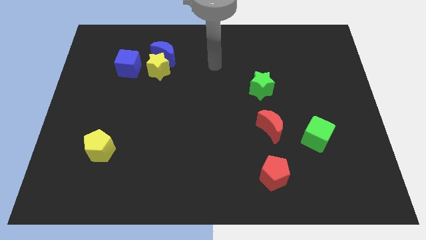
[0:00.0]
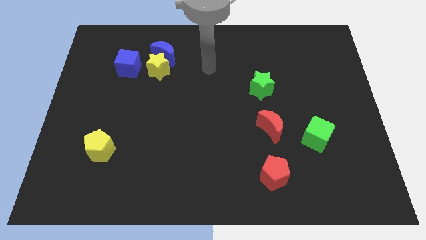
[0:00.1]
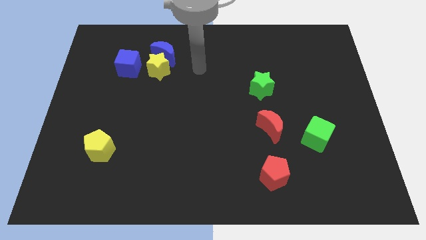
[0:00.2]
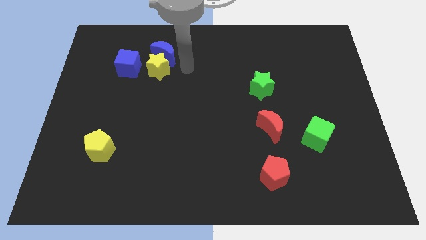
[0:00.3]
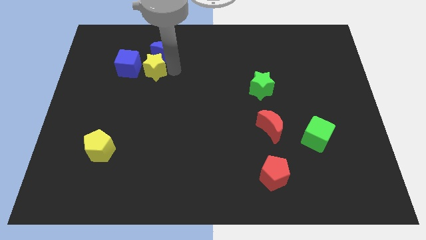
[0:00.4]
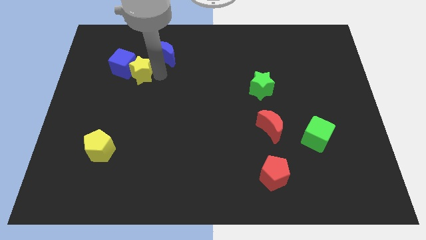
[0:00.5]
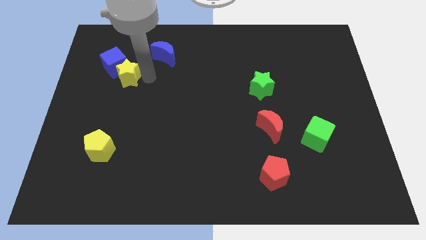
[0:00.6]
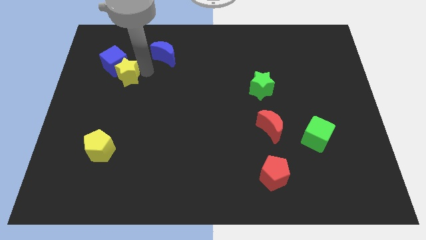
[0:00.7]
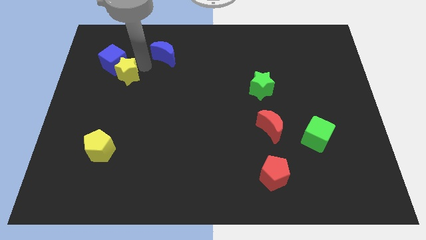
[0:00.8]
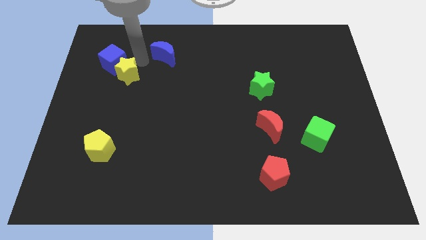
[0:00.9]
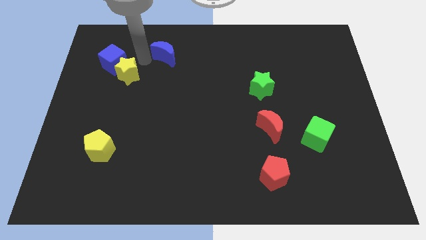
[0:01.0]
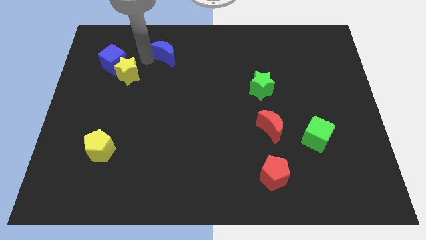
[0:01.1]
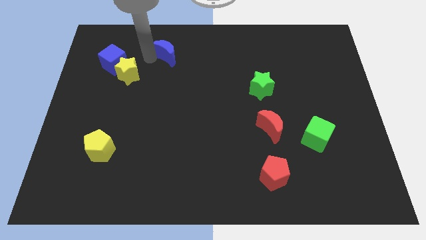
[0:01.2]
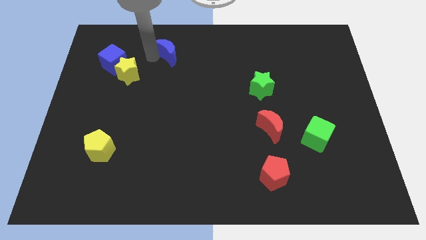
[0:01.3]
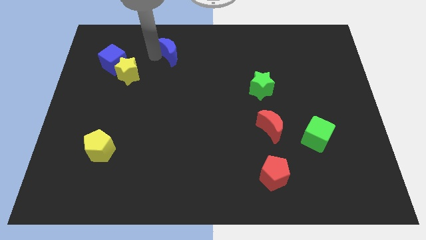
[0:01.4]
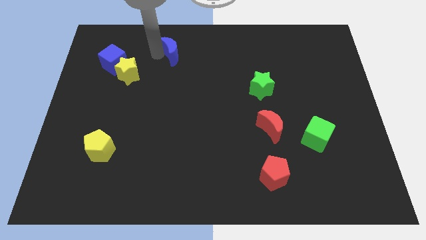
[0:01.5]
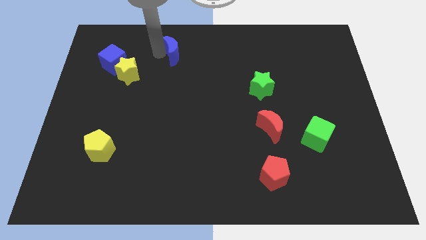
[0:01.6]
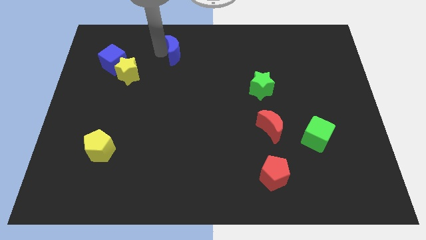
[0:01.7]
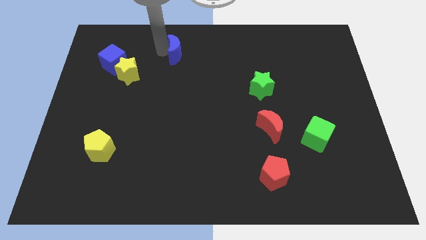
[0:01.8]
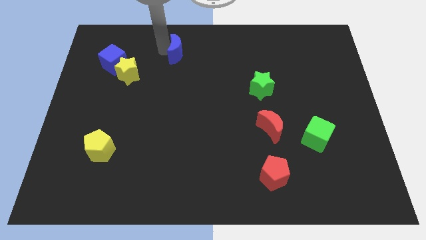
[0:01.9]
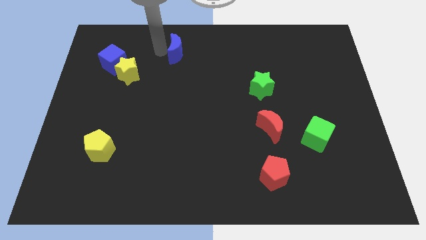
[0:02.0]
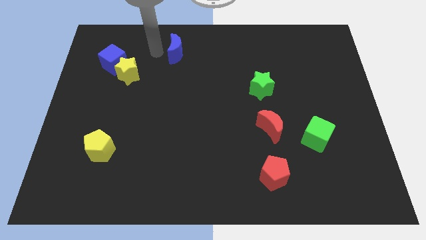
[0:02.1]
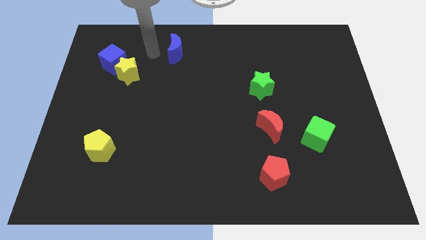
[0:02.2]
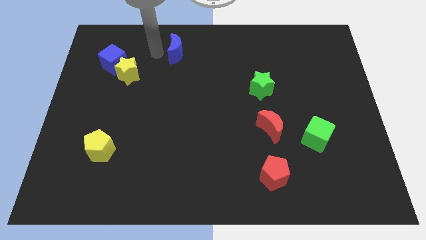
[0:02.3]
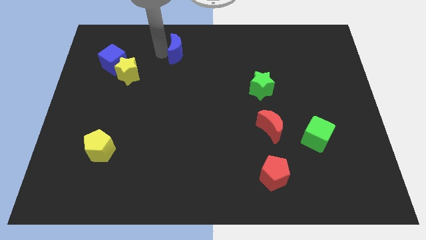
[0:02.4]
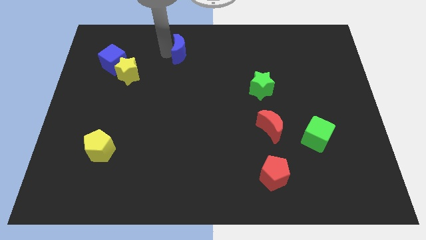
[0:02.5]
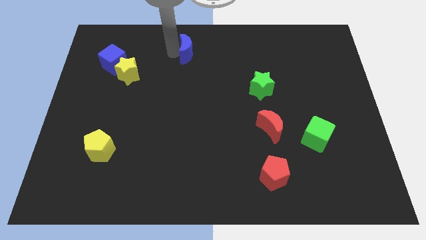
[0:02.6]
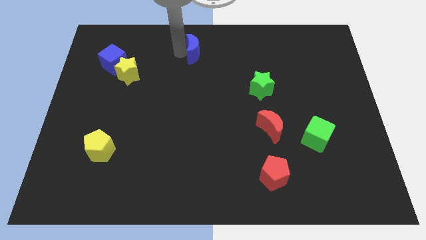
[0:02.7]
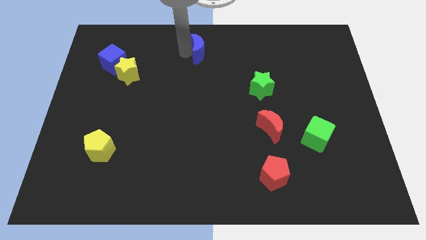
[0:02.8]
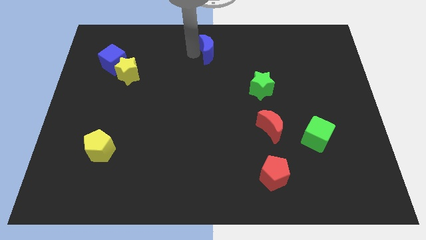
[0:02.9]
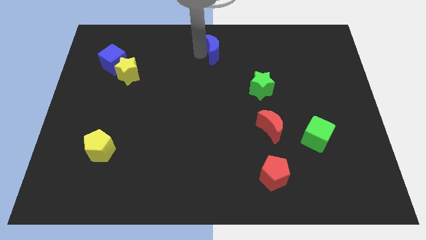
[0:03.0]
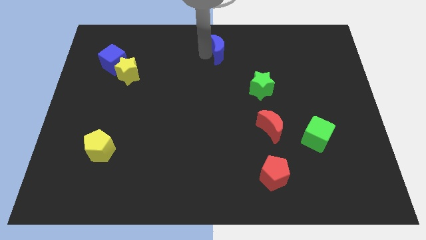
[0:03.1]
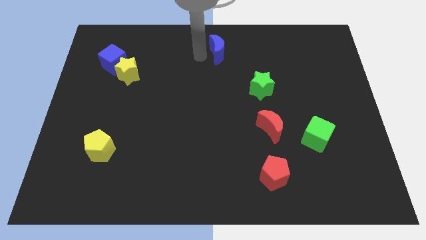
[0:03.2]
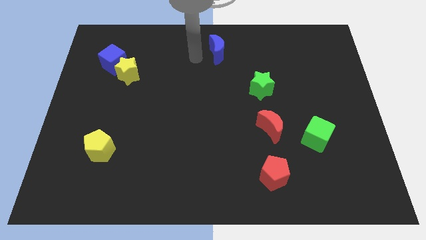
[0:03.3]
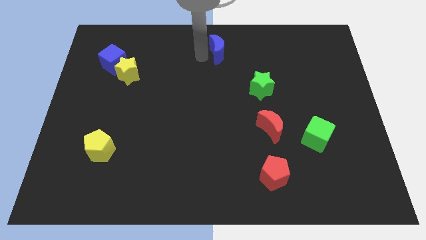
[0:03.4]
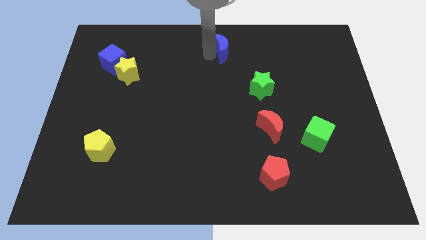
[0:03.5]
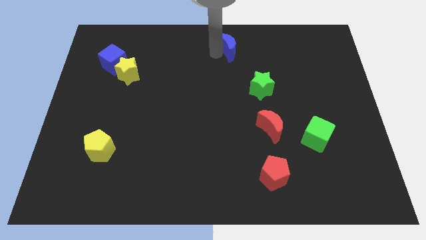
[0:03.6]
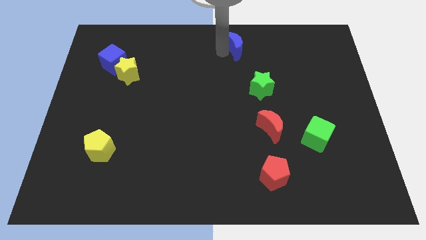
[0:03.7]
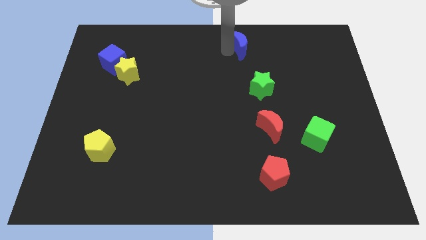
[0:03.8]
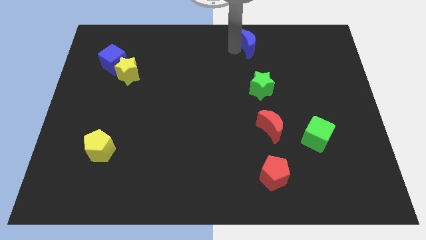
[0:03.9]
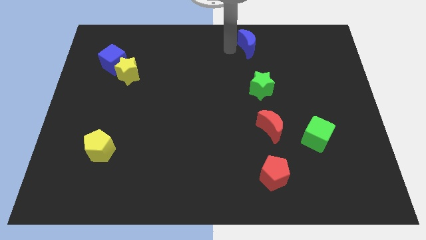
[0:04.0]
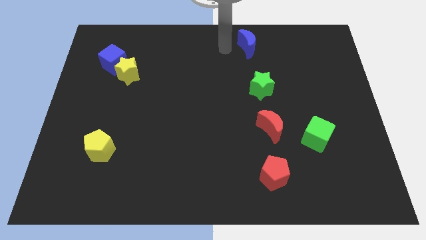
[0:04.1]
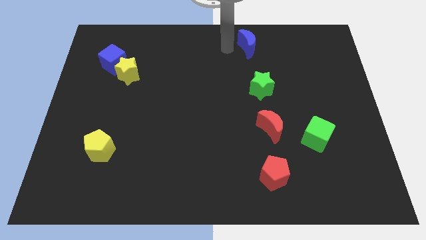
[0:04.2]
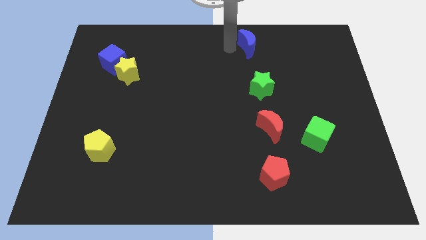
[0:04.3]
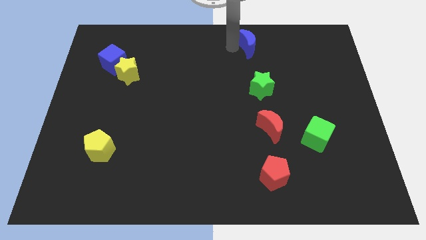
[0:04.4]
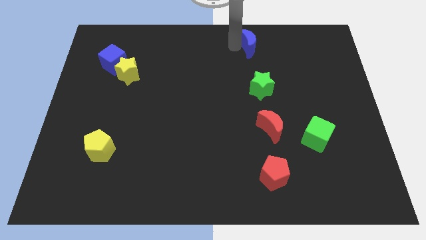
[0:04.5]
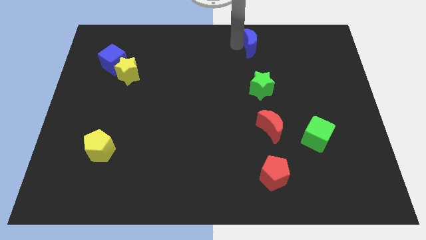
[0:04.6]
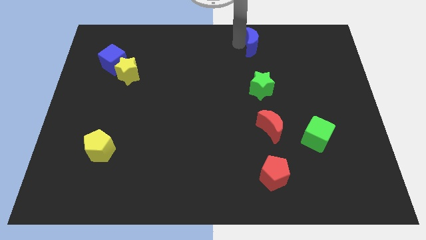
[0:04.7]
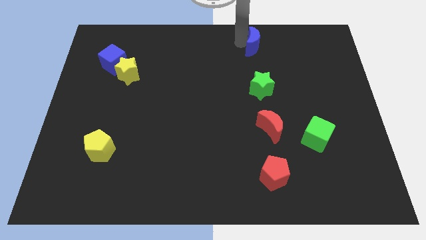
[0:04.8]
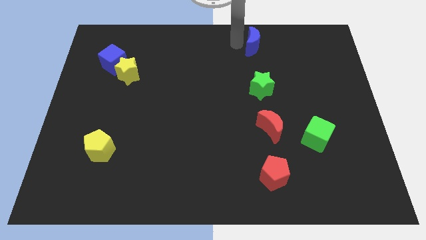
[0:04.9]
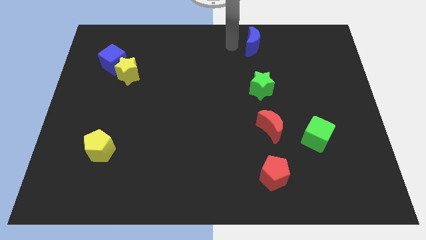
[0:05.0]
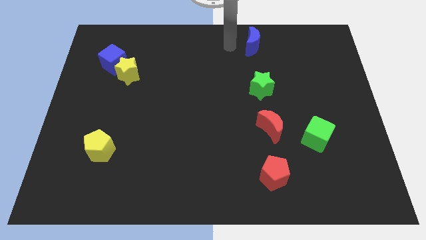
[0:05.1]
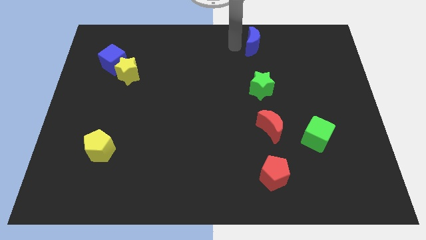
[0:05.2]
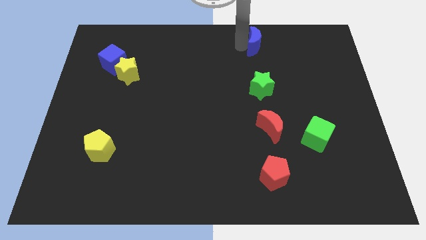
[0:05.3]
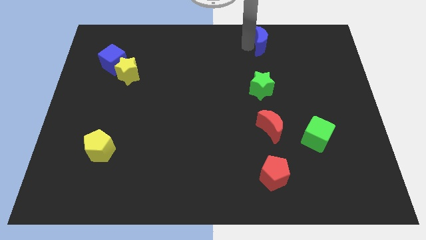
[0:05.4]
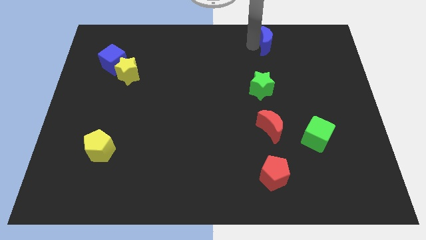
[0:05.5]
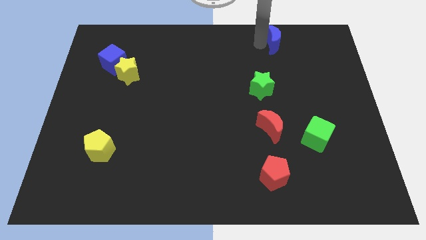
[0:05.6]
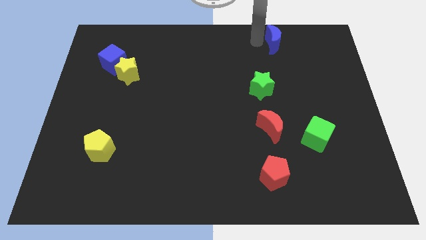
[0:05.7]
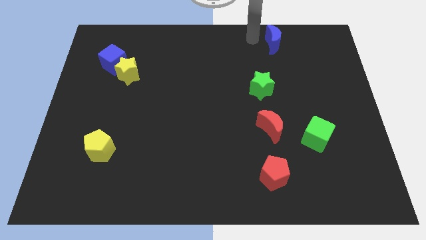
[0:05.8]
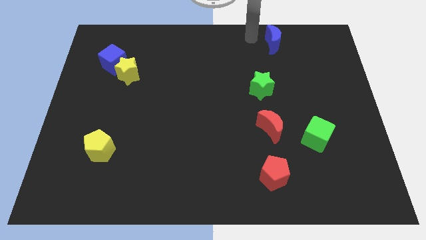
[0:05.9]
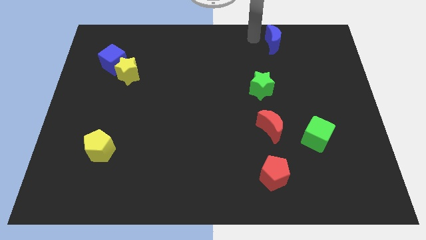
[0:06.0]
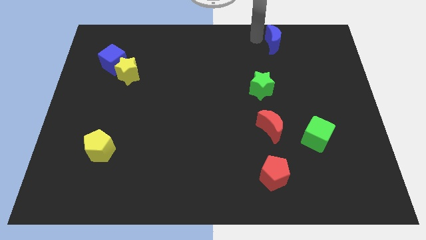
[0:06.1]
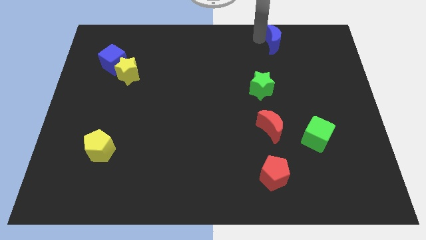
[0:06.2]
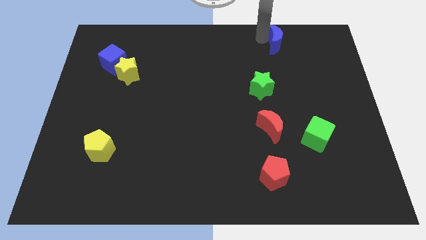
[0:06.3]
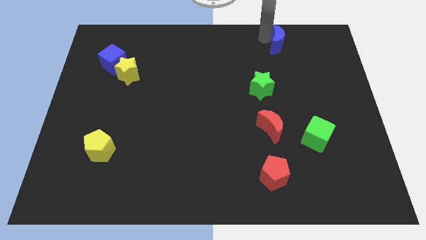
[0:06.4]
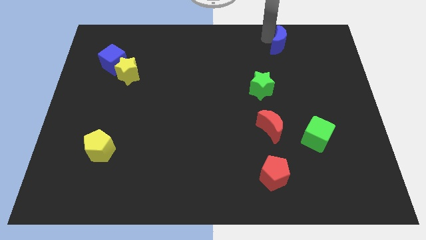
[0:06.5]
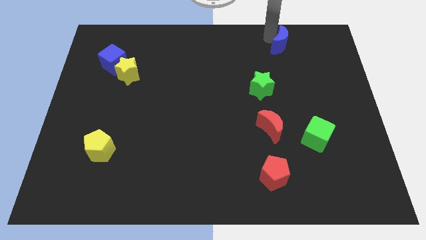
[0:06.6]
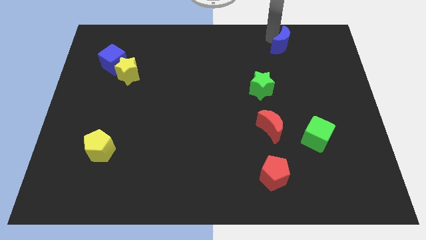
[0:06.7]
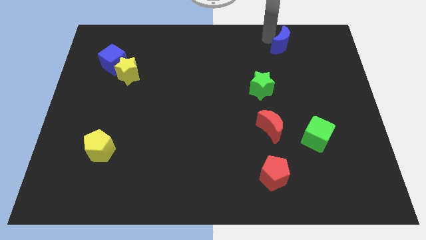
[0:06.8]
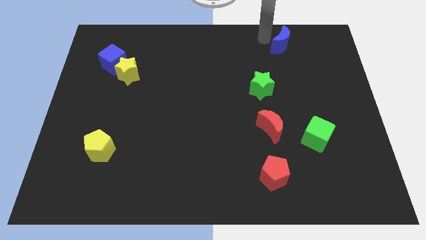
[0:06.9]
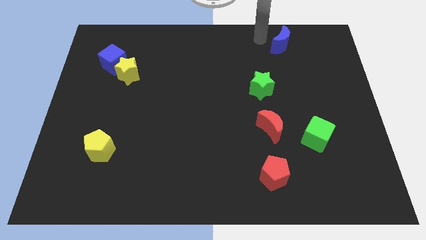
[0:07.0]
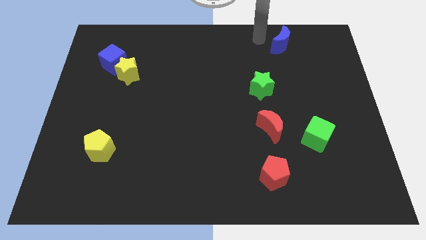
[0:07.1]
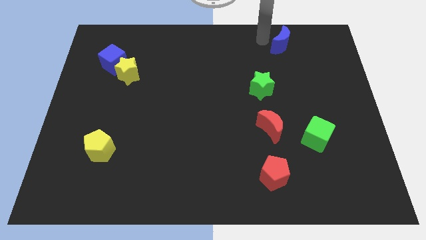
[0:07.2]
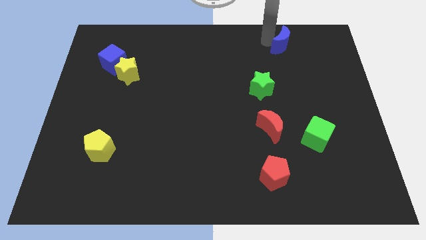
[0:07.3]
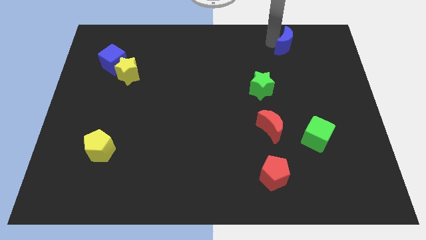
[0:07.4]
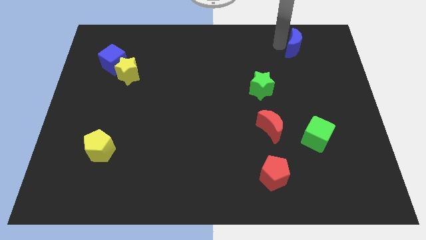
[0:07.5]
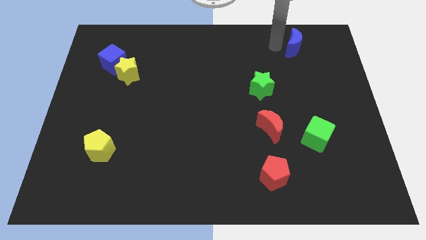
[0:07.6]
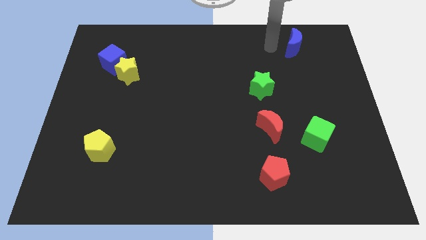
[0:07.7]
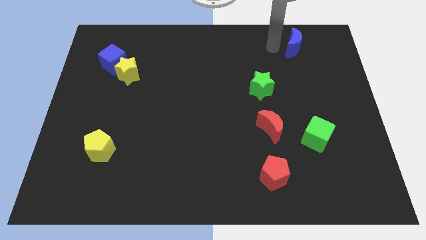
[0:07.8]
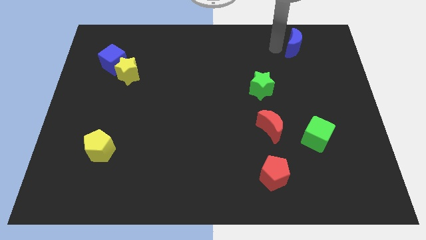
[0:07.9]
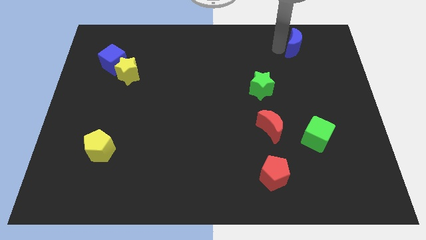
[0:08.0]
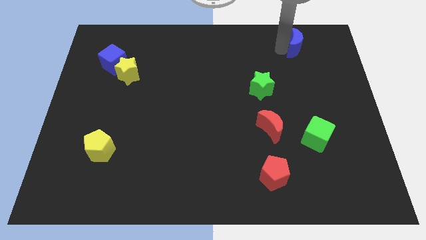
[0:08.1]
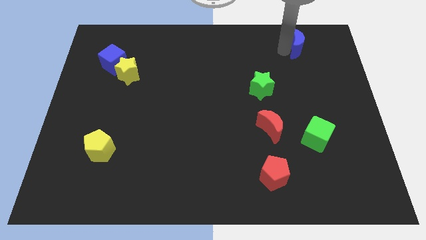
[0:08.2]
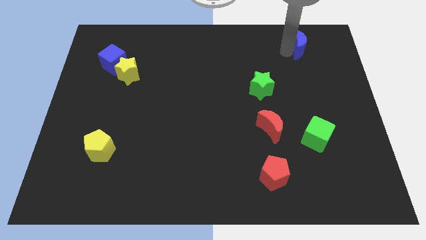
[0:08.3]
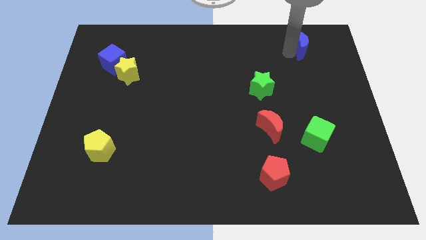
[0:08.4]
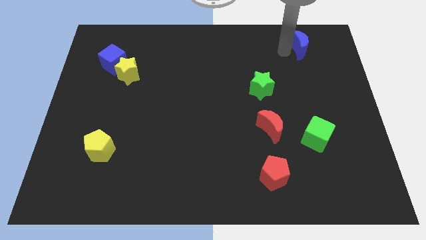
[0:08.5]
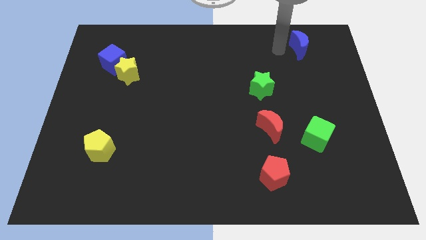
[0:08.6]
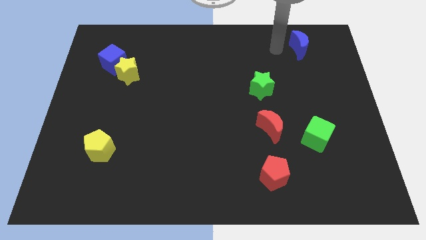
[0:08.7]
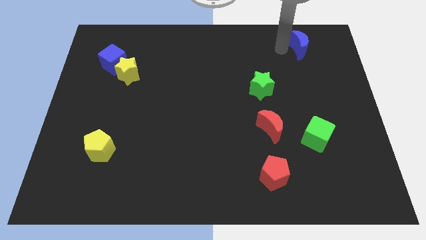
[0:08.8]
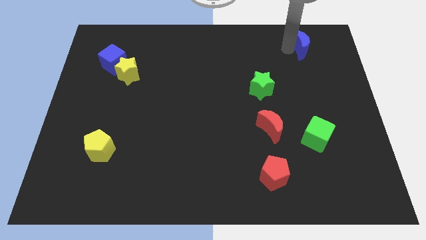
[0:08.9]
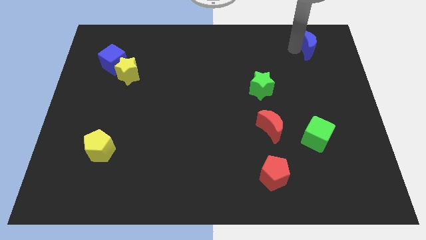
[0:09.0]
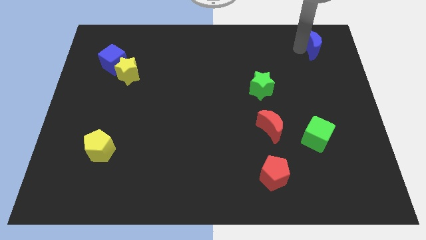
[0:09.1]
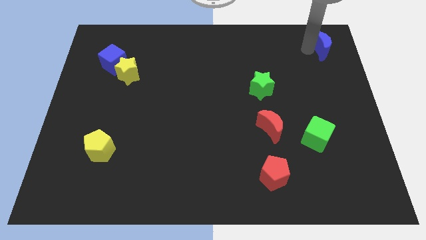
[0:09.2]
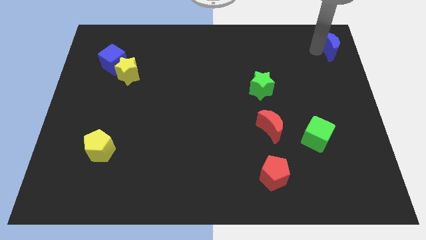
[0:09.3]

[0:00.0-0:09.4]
slide the blue moon to the top right corner
